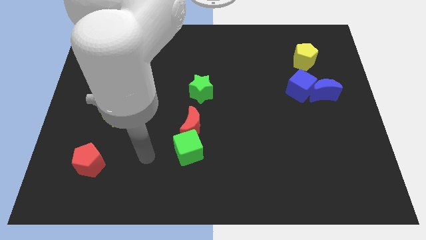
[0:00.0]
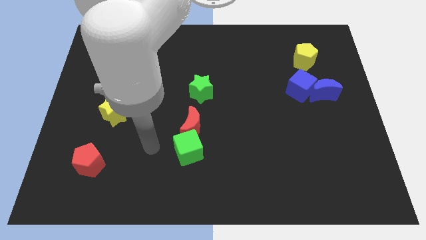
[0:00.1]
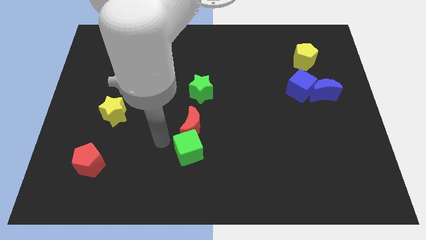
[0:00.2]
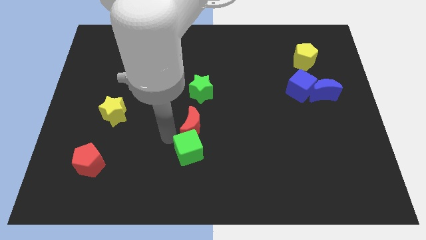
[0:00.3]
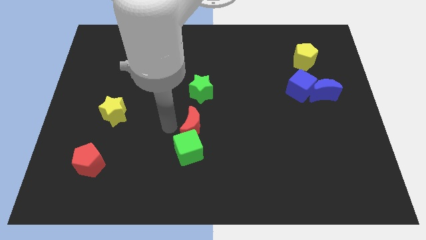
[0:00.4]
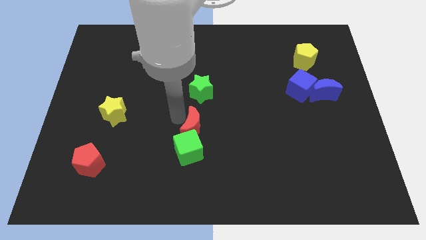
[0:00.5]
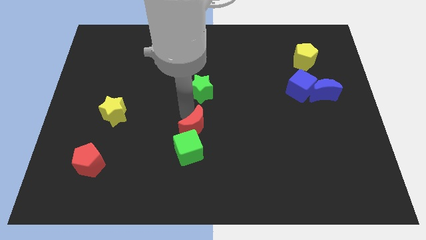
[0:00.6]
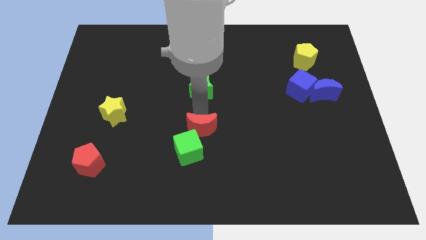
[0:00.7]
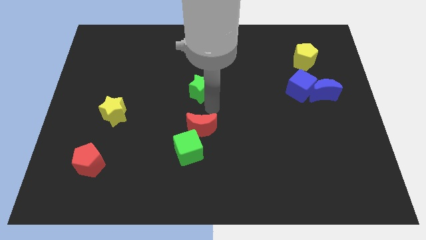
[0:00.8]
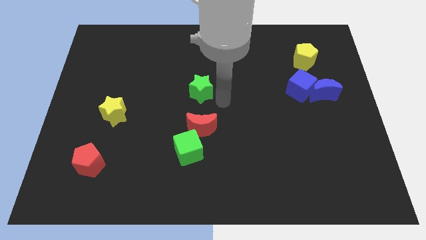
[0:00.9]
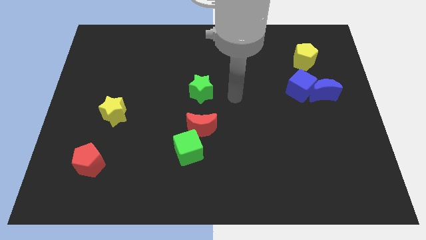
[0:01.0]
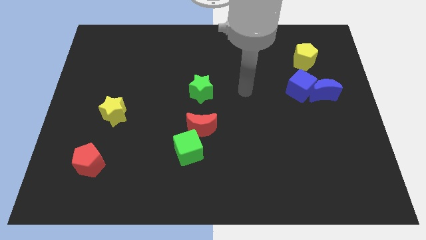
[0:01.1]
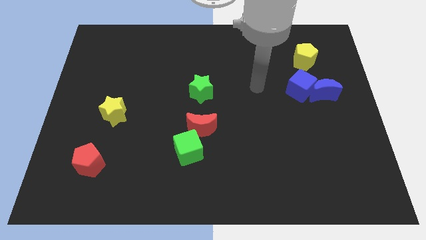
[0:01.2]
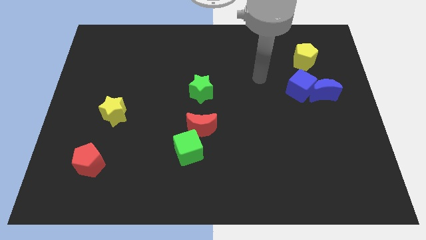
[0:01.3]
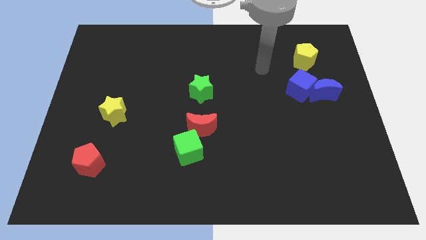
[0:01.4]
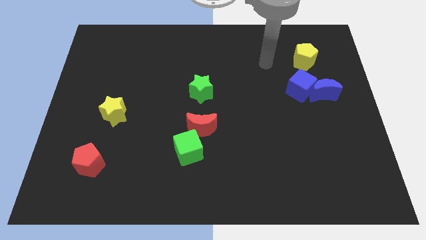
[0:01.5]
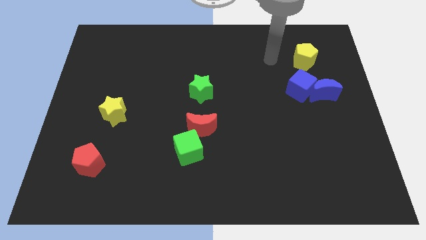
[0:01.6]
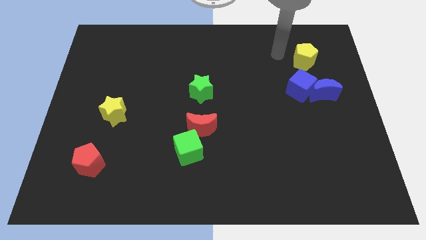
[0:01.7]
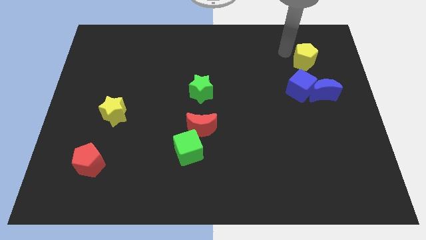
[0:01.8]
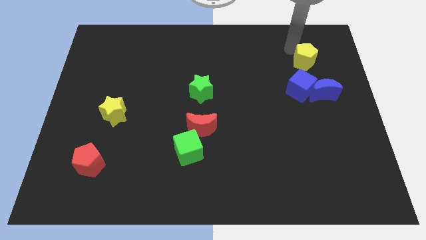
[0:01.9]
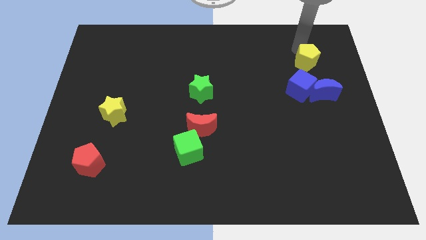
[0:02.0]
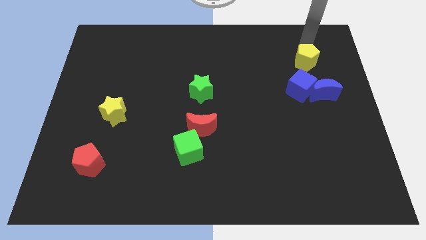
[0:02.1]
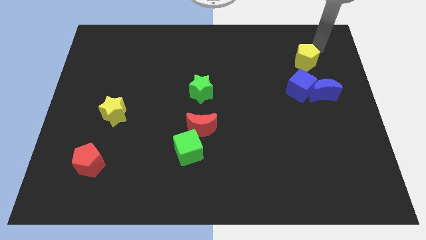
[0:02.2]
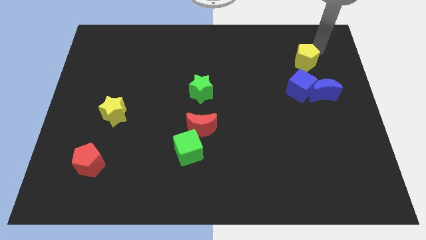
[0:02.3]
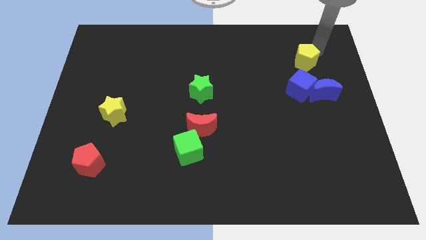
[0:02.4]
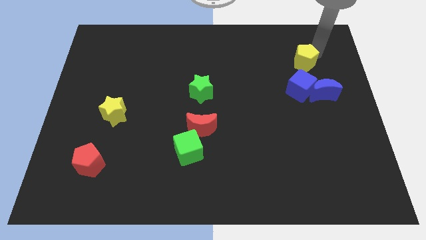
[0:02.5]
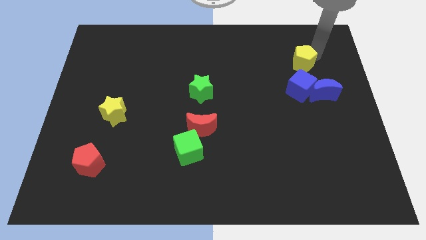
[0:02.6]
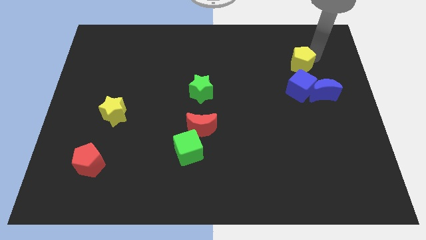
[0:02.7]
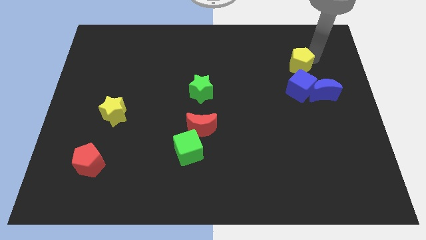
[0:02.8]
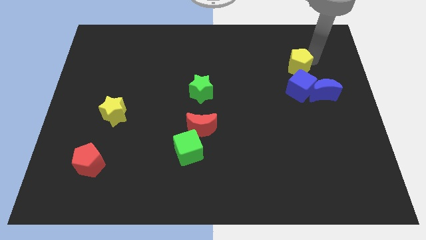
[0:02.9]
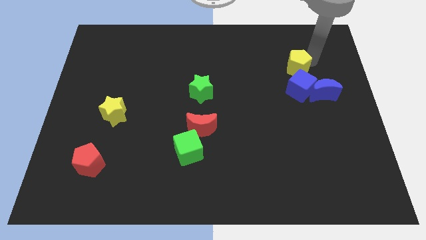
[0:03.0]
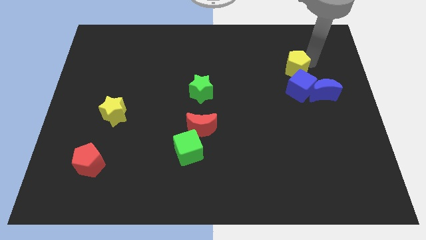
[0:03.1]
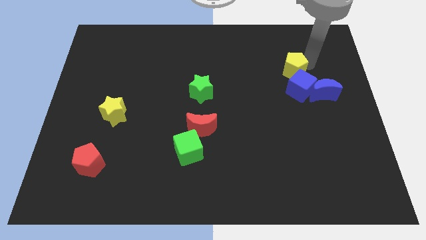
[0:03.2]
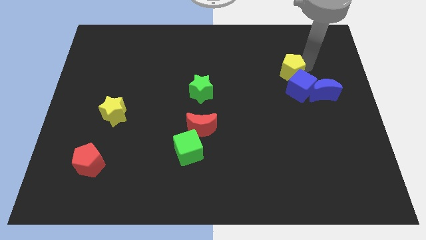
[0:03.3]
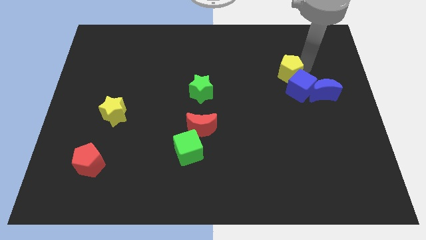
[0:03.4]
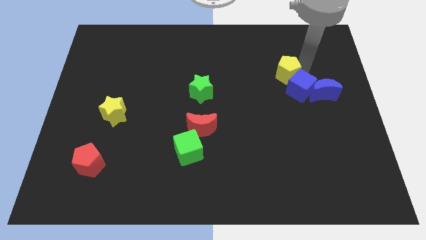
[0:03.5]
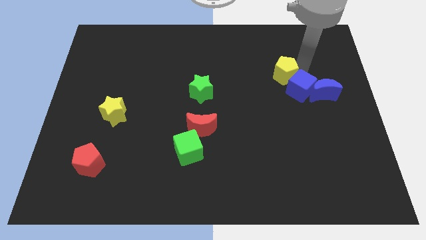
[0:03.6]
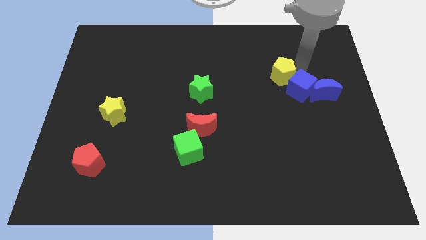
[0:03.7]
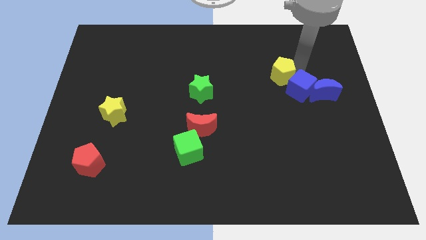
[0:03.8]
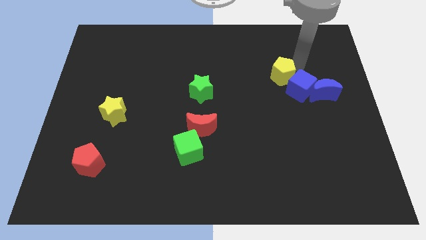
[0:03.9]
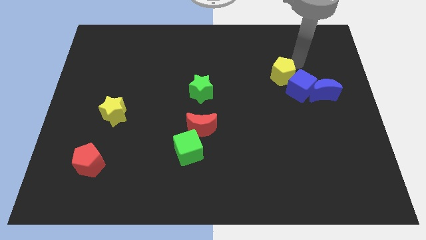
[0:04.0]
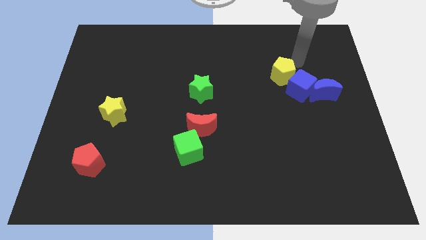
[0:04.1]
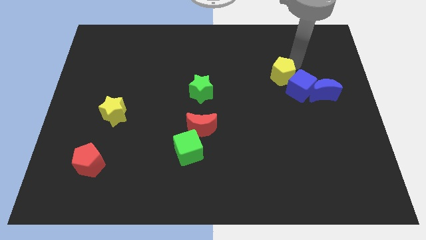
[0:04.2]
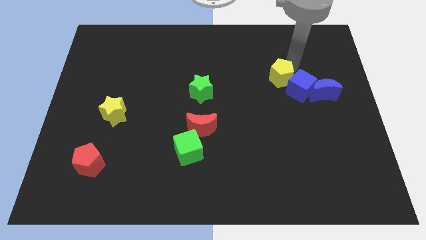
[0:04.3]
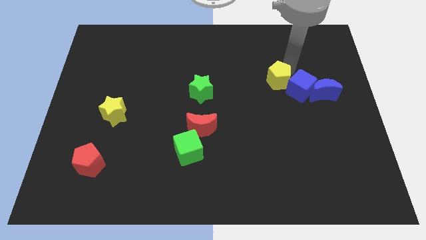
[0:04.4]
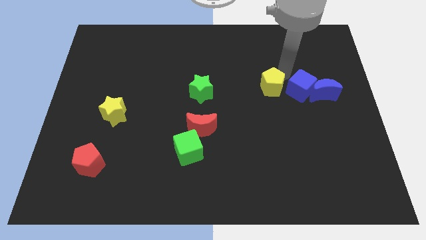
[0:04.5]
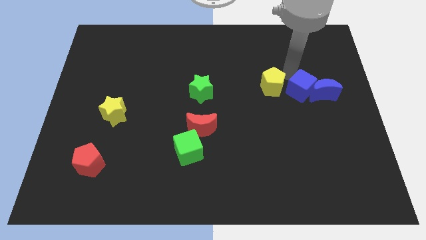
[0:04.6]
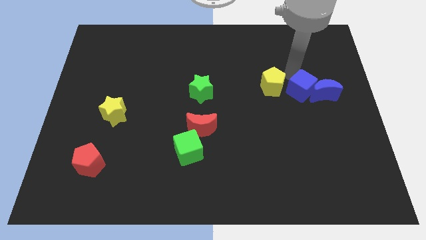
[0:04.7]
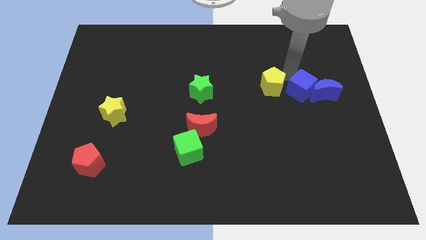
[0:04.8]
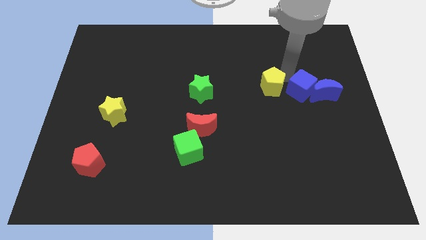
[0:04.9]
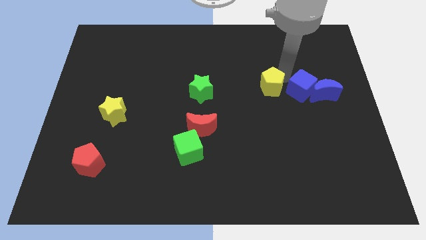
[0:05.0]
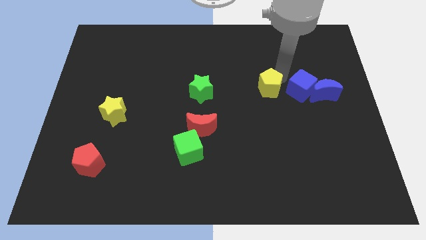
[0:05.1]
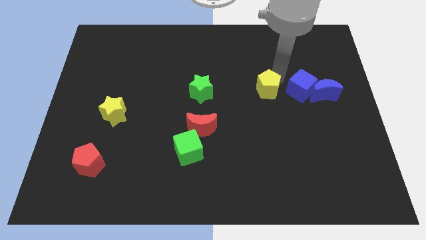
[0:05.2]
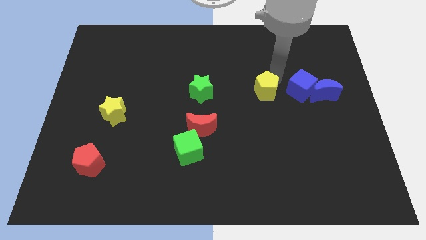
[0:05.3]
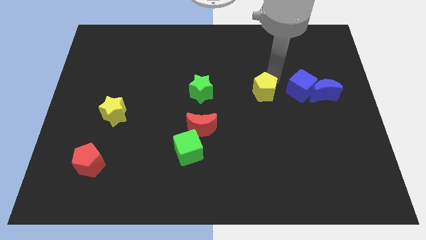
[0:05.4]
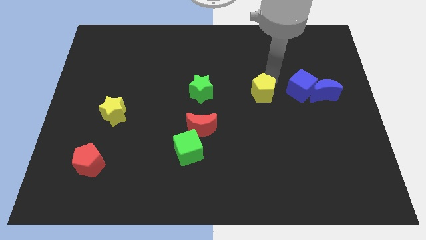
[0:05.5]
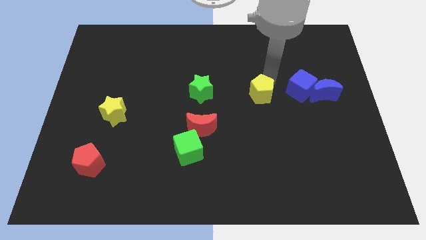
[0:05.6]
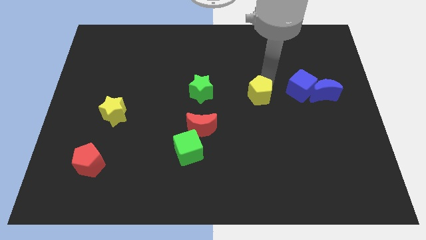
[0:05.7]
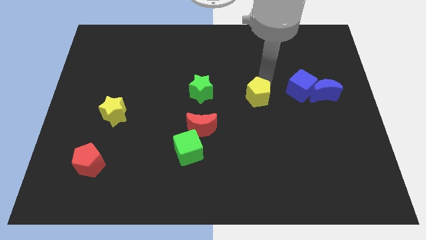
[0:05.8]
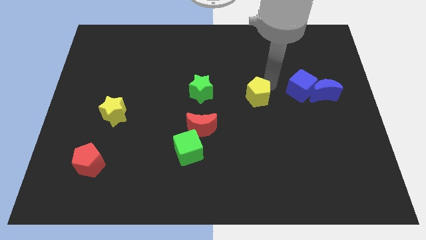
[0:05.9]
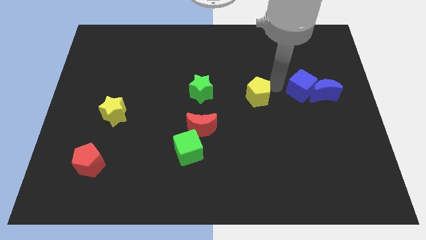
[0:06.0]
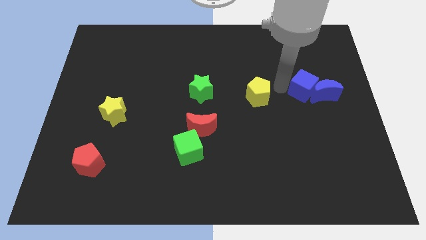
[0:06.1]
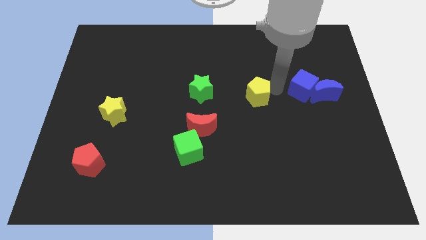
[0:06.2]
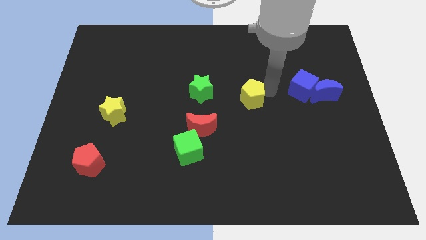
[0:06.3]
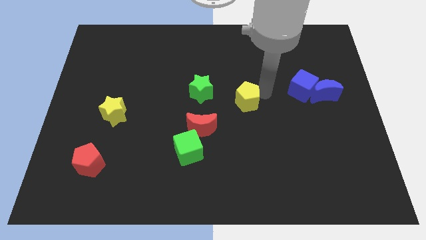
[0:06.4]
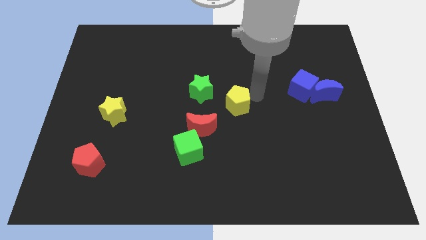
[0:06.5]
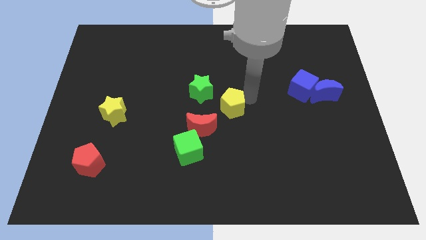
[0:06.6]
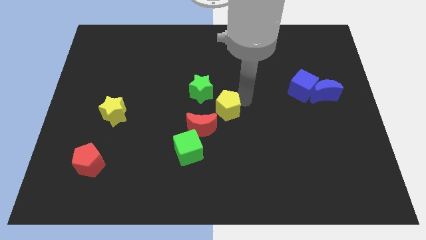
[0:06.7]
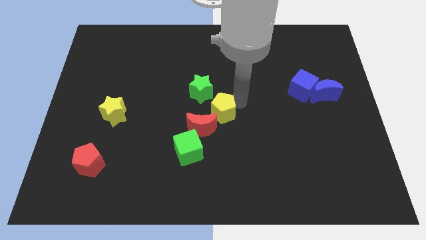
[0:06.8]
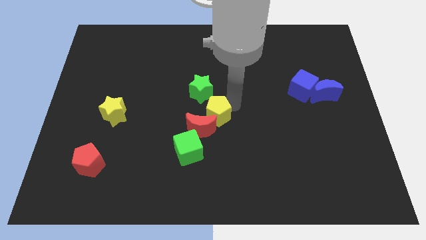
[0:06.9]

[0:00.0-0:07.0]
push the yellow pentagon next to the red moon
